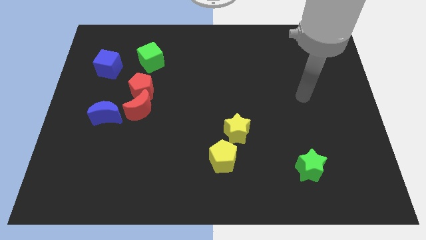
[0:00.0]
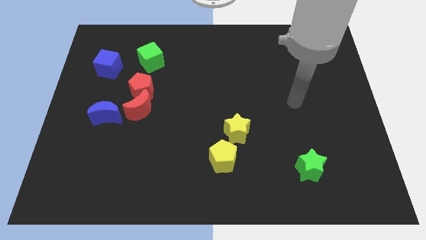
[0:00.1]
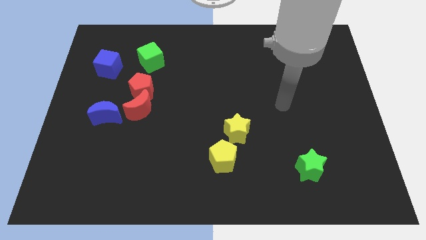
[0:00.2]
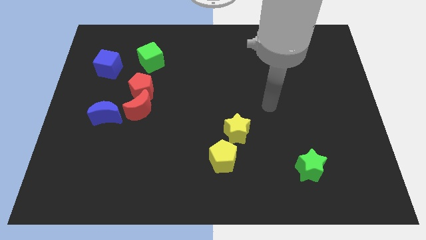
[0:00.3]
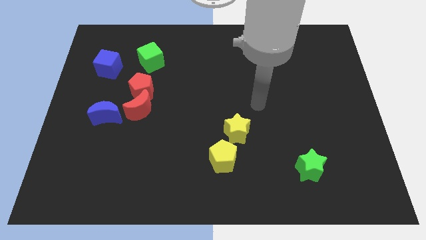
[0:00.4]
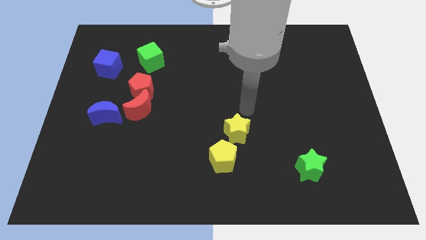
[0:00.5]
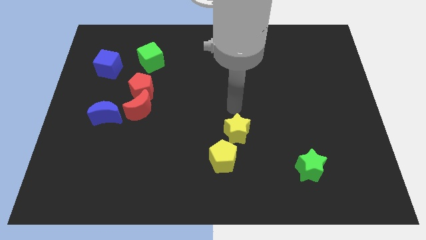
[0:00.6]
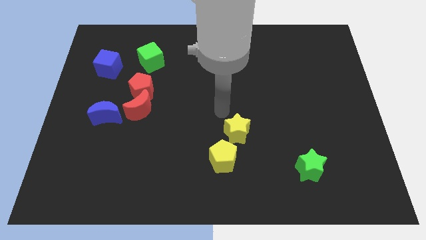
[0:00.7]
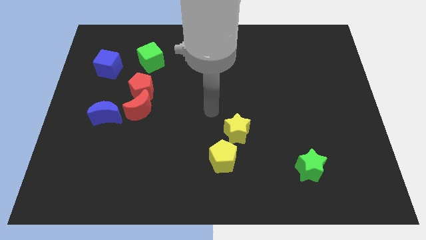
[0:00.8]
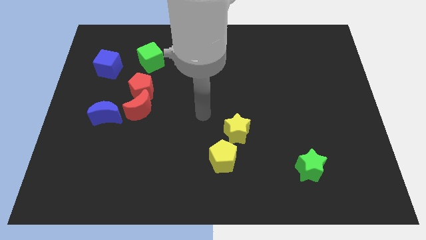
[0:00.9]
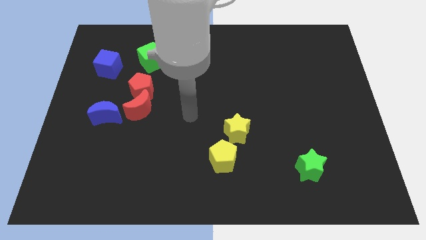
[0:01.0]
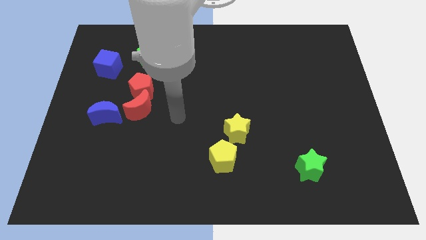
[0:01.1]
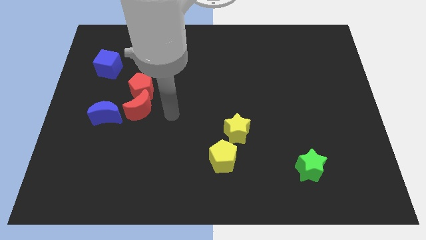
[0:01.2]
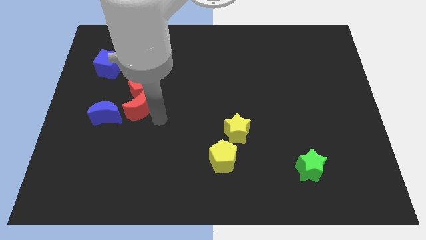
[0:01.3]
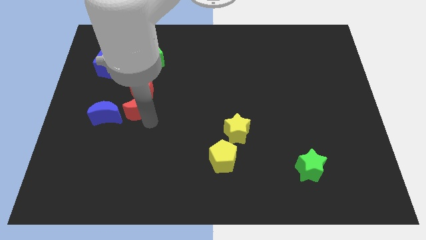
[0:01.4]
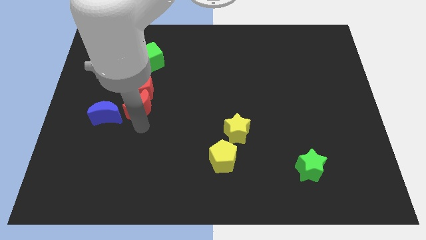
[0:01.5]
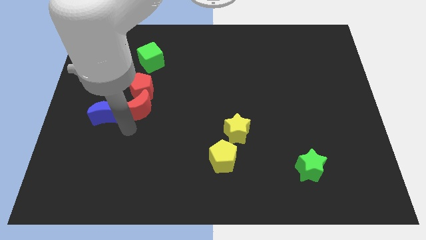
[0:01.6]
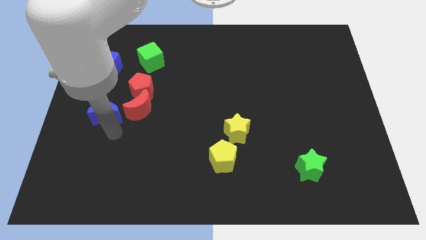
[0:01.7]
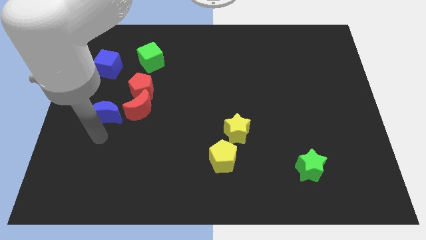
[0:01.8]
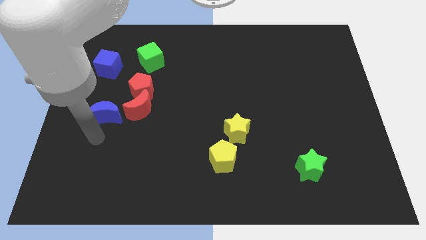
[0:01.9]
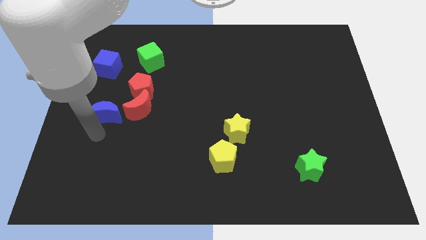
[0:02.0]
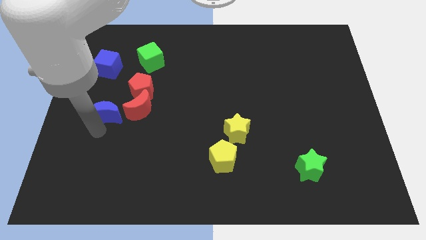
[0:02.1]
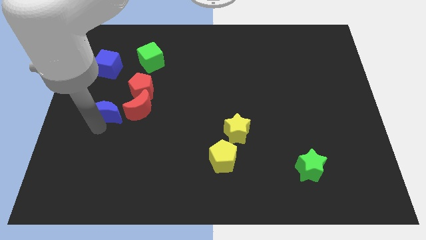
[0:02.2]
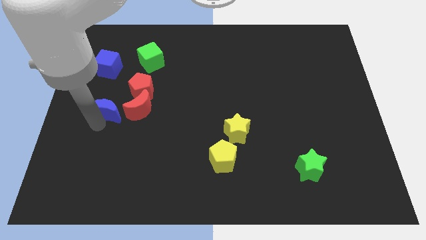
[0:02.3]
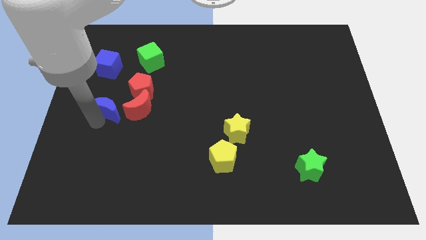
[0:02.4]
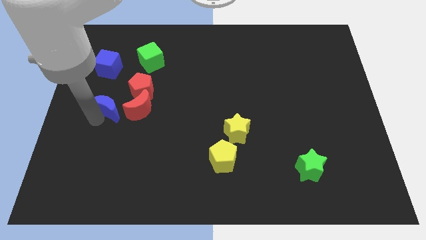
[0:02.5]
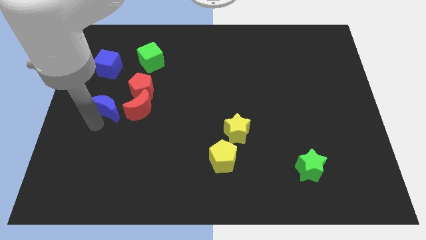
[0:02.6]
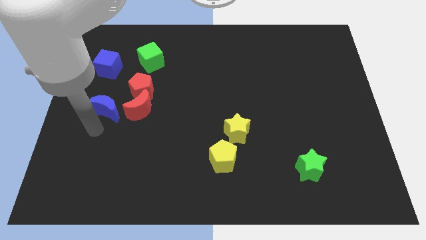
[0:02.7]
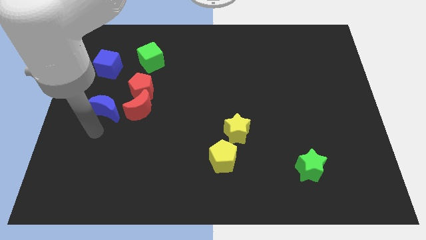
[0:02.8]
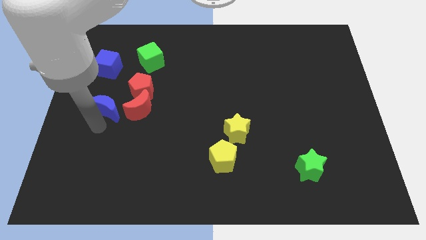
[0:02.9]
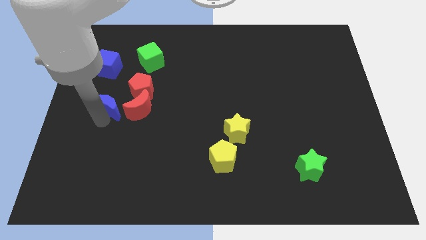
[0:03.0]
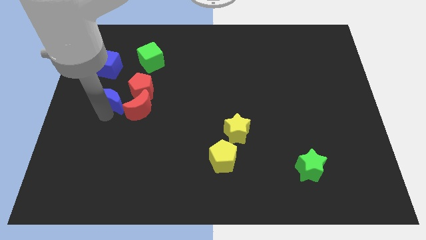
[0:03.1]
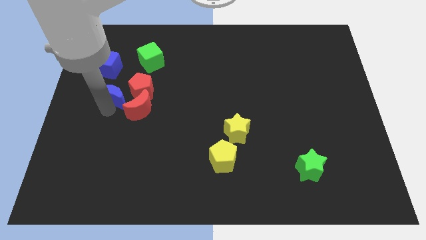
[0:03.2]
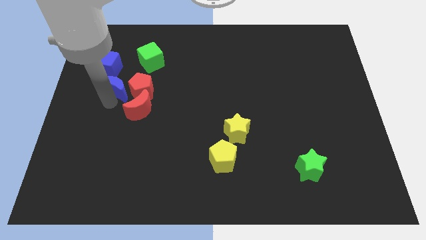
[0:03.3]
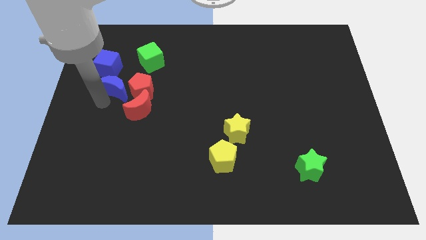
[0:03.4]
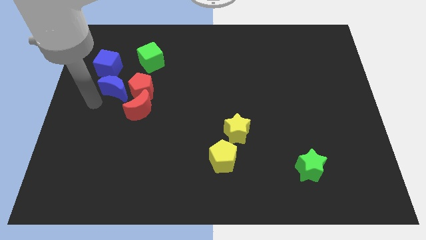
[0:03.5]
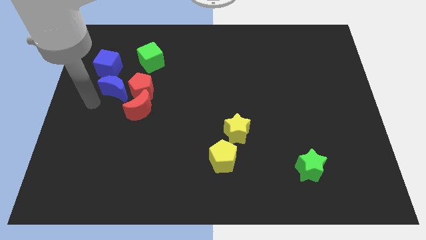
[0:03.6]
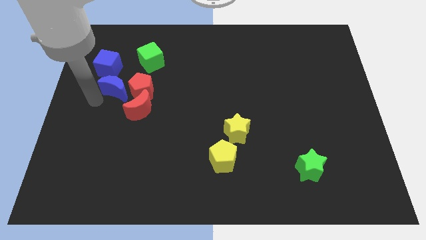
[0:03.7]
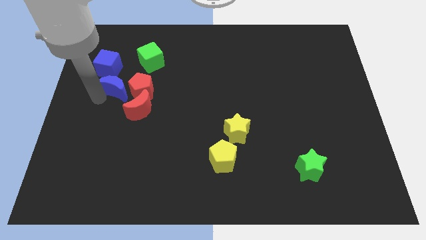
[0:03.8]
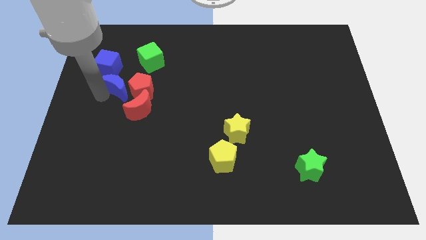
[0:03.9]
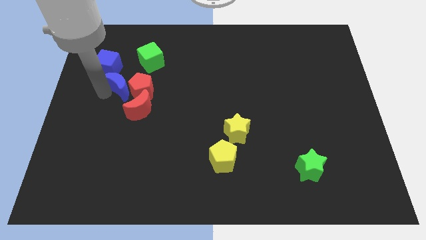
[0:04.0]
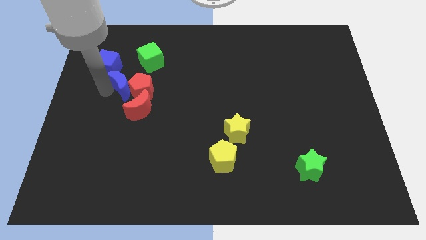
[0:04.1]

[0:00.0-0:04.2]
slightly push the blue moon upwards and then right

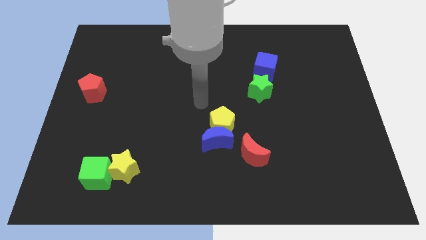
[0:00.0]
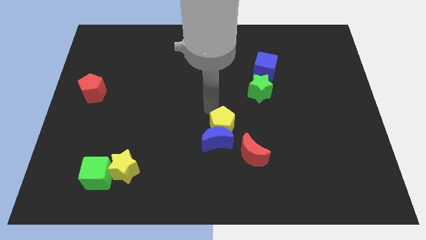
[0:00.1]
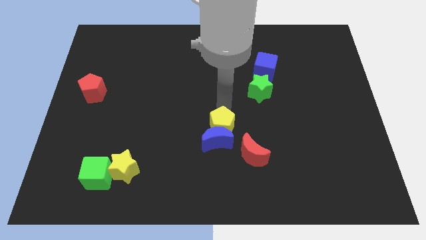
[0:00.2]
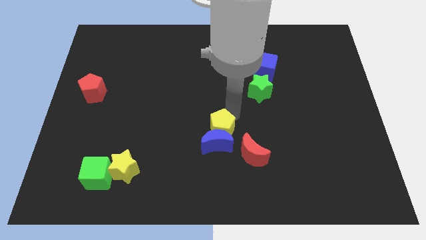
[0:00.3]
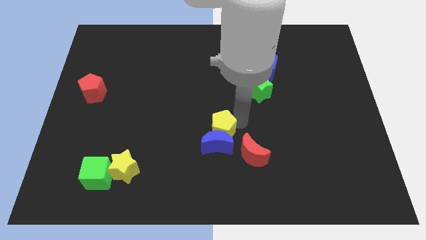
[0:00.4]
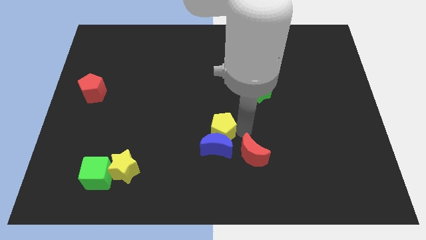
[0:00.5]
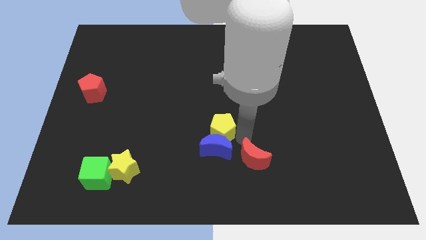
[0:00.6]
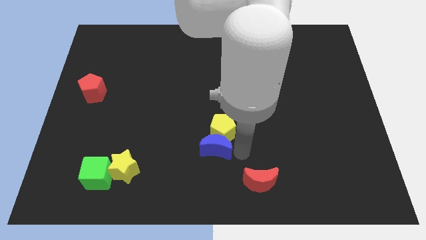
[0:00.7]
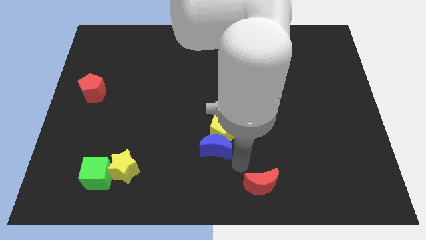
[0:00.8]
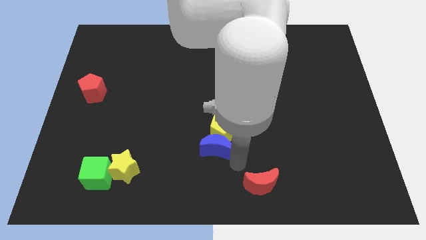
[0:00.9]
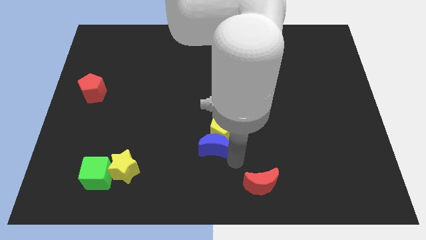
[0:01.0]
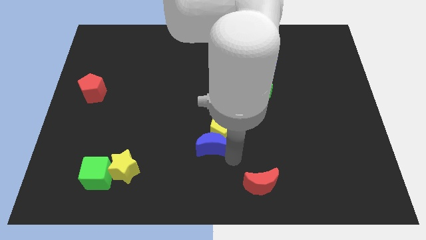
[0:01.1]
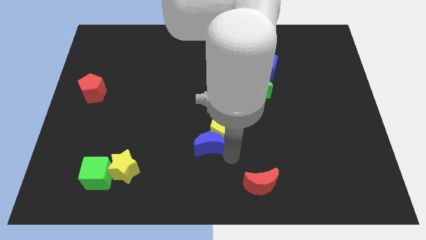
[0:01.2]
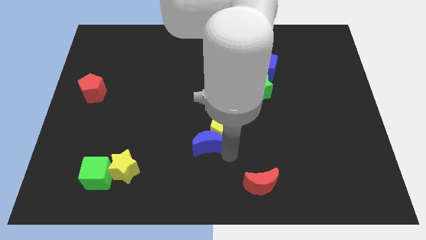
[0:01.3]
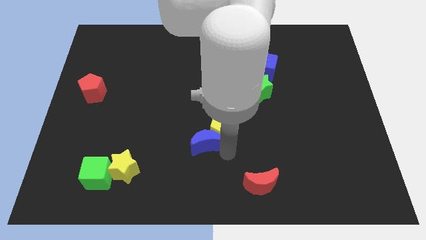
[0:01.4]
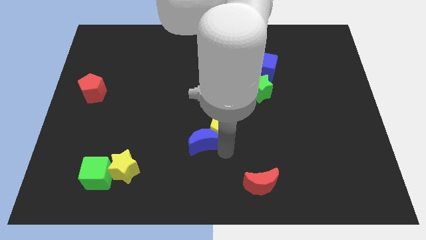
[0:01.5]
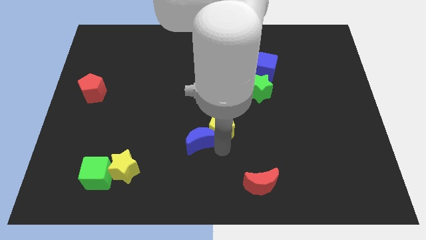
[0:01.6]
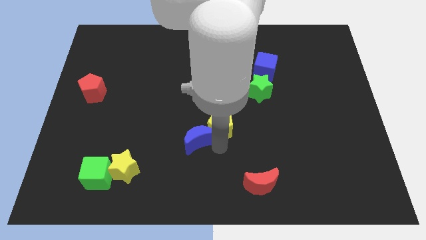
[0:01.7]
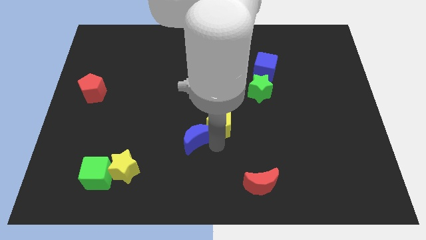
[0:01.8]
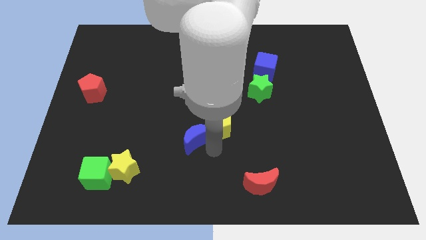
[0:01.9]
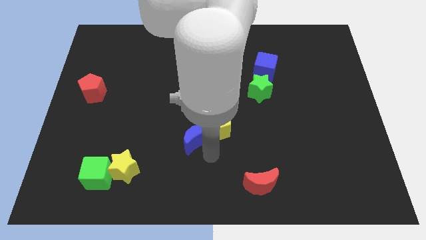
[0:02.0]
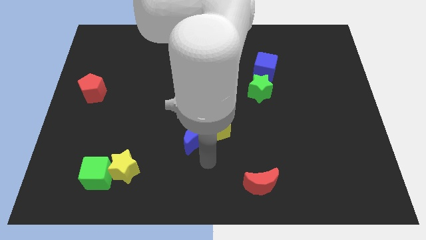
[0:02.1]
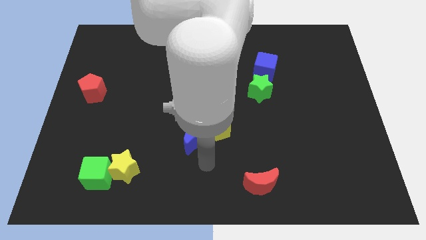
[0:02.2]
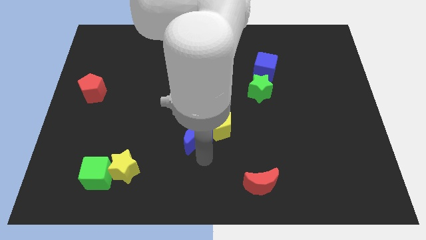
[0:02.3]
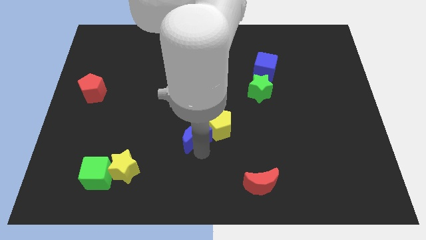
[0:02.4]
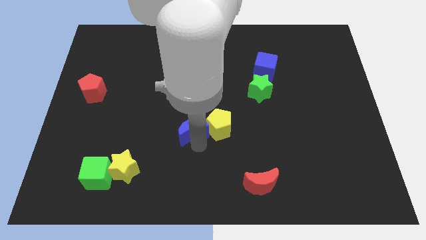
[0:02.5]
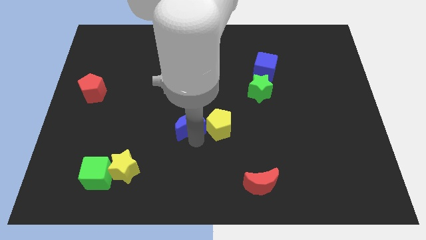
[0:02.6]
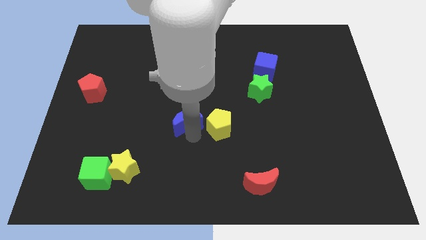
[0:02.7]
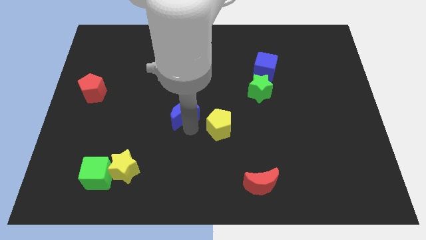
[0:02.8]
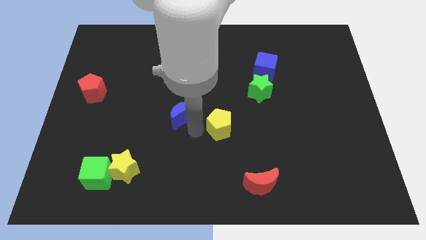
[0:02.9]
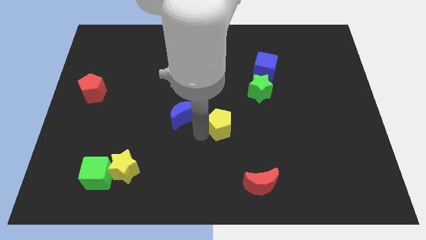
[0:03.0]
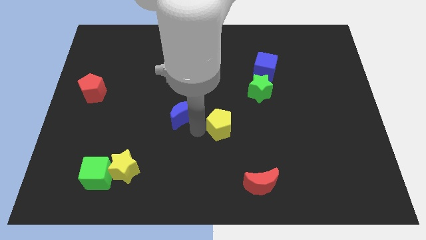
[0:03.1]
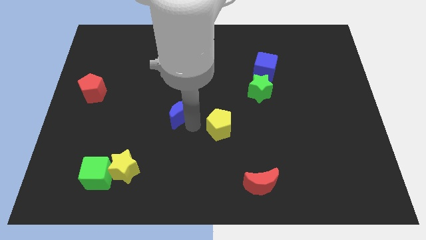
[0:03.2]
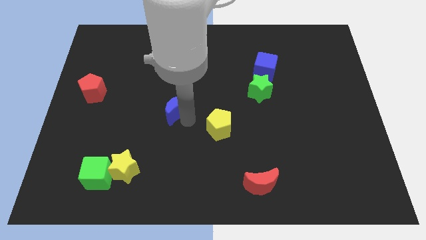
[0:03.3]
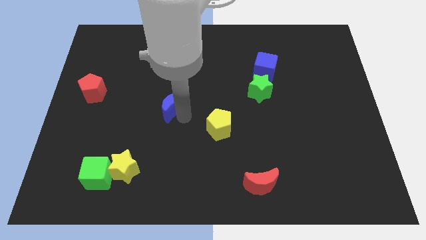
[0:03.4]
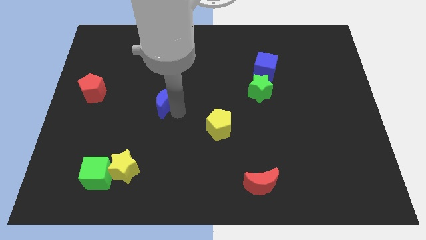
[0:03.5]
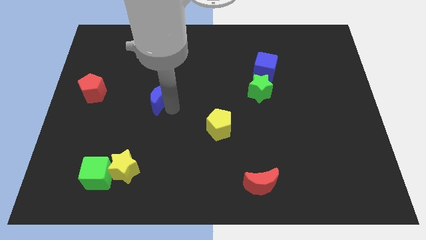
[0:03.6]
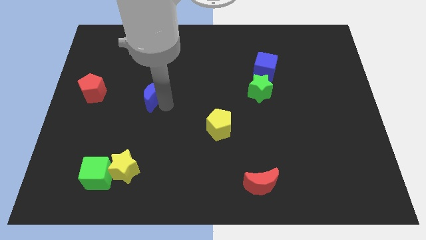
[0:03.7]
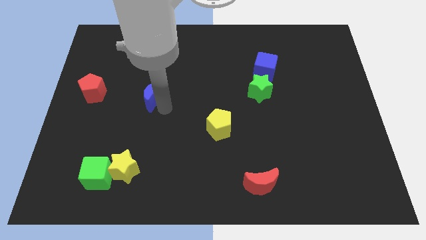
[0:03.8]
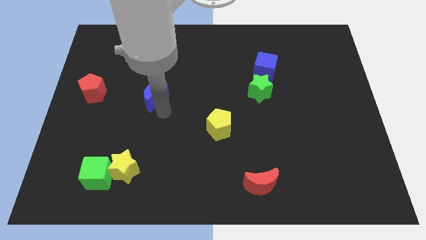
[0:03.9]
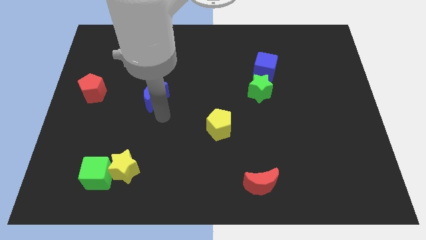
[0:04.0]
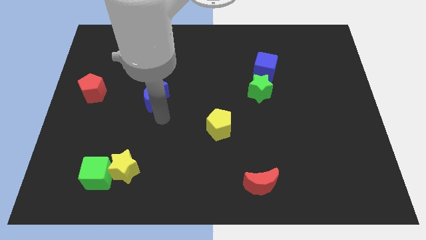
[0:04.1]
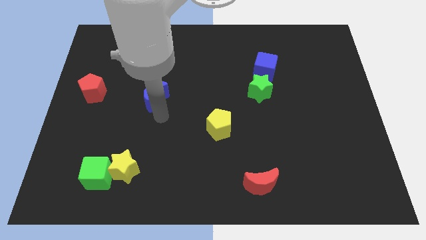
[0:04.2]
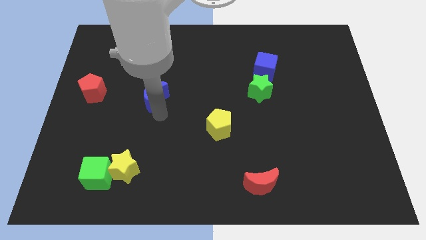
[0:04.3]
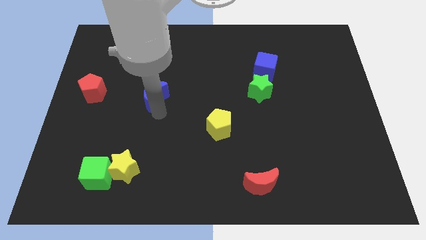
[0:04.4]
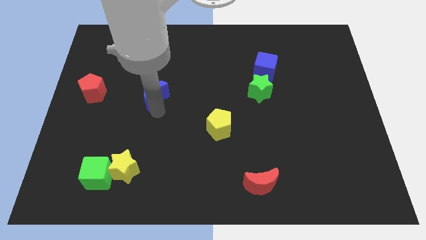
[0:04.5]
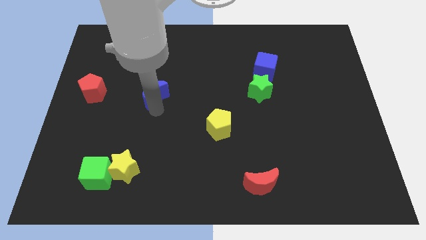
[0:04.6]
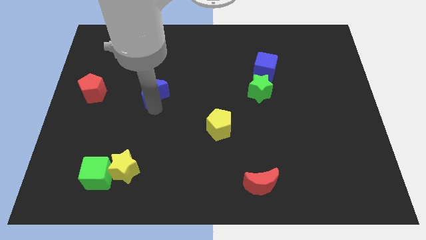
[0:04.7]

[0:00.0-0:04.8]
slide the blue moon upwards and then left
